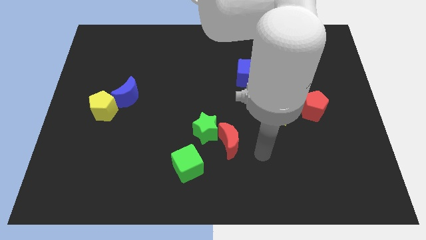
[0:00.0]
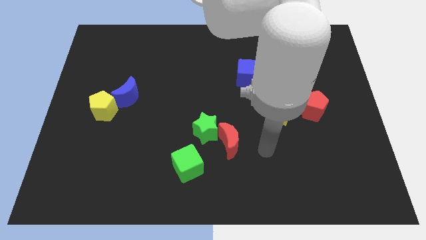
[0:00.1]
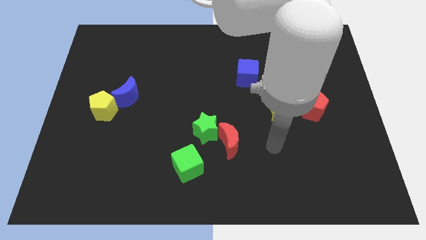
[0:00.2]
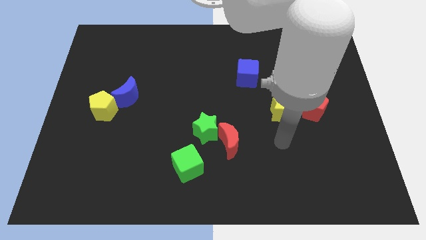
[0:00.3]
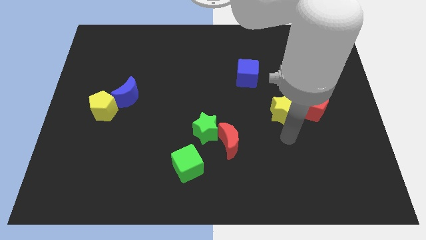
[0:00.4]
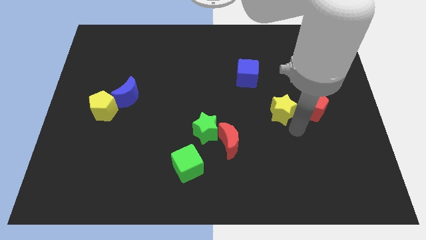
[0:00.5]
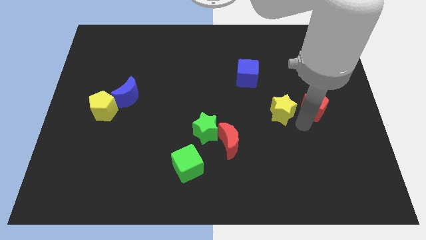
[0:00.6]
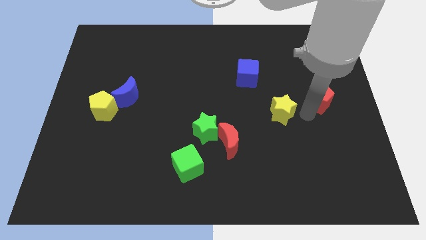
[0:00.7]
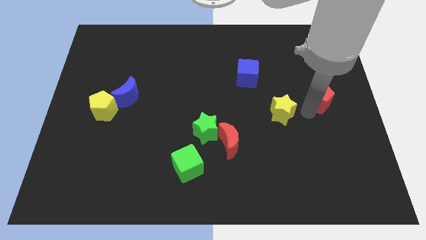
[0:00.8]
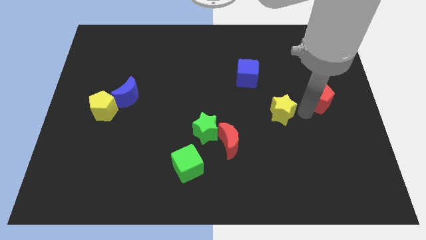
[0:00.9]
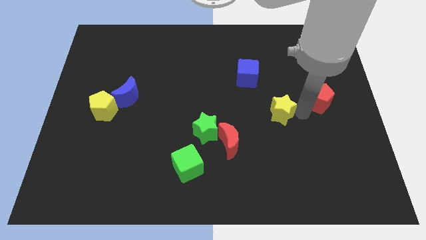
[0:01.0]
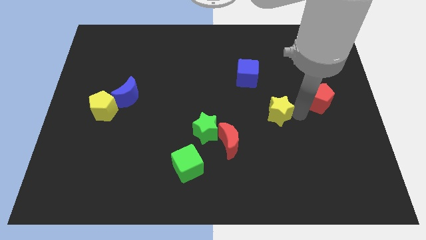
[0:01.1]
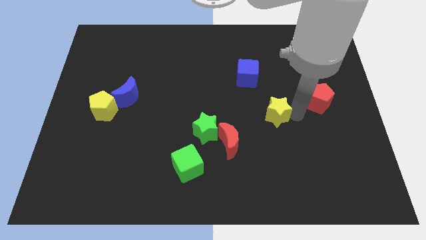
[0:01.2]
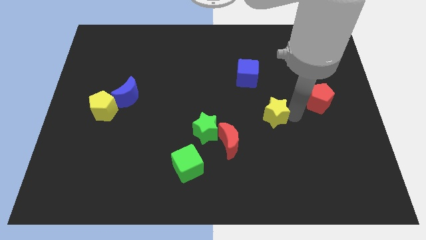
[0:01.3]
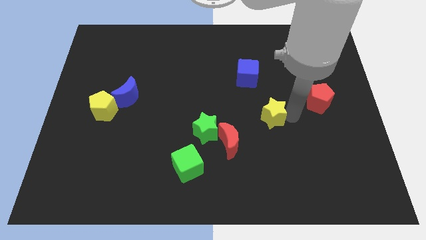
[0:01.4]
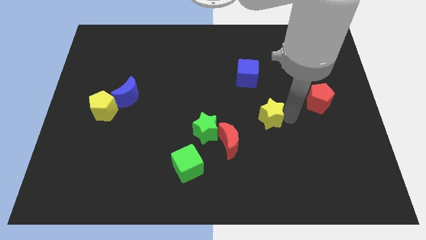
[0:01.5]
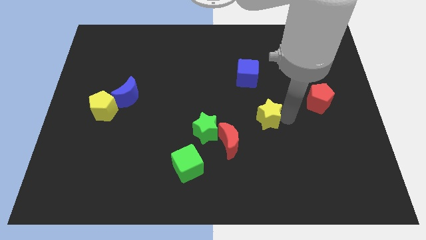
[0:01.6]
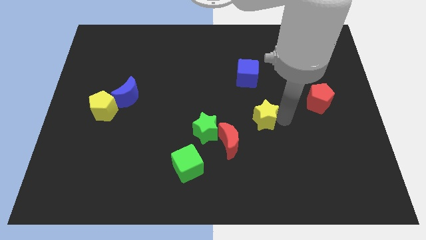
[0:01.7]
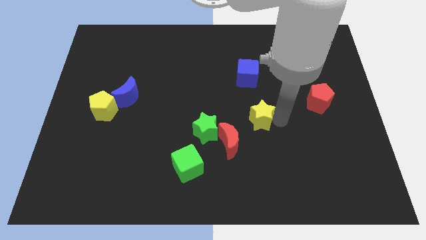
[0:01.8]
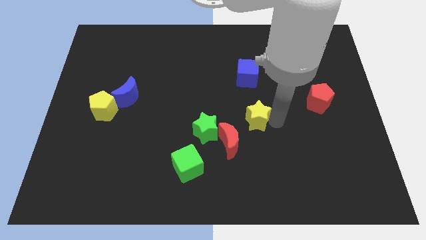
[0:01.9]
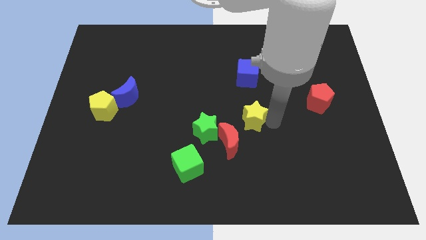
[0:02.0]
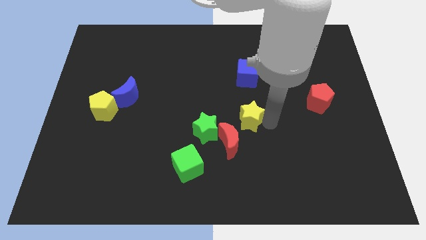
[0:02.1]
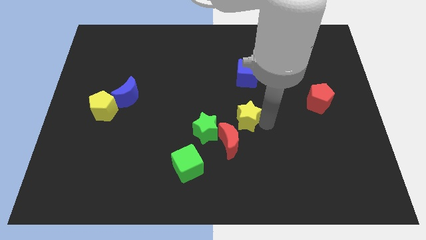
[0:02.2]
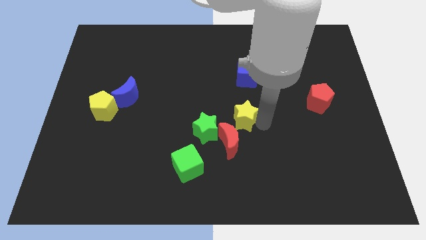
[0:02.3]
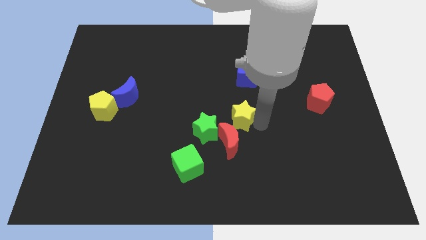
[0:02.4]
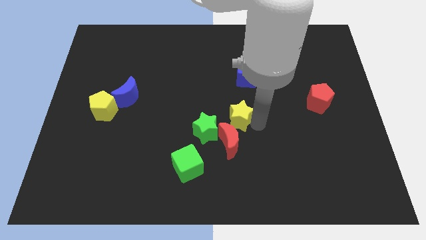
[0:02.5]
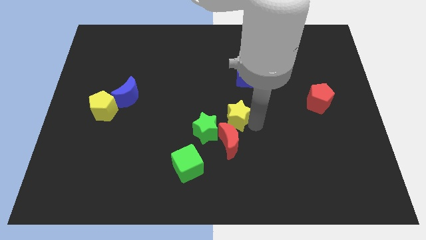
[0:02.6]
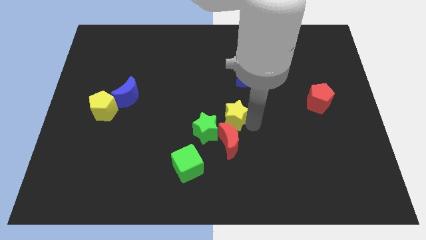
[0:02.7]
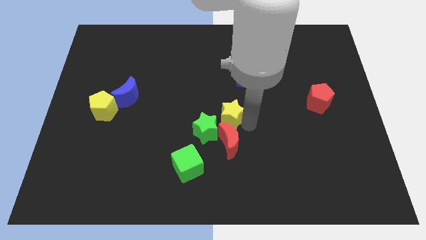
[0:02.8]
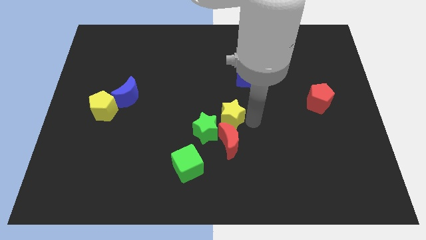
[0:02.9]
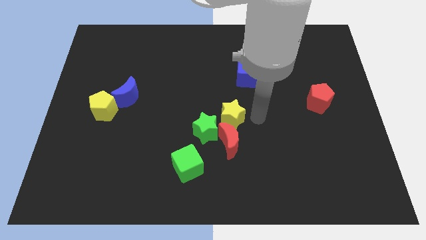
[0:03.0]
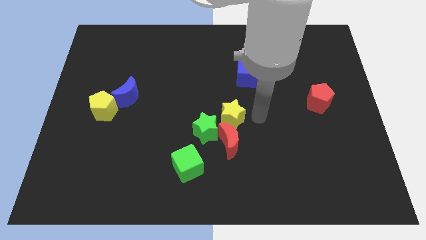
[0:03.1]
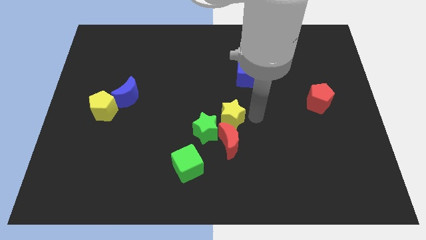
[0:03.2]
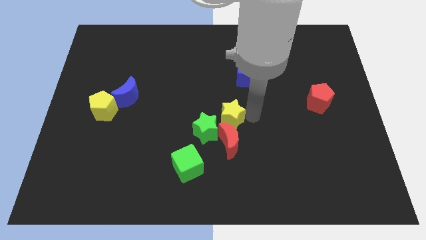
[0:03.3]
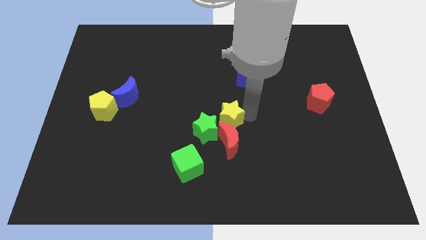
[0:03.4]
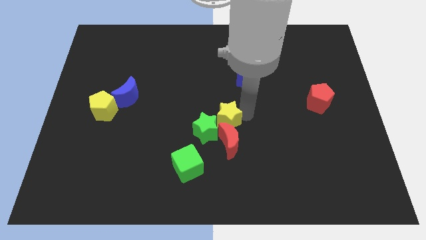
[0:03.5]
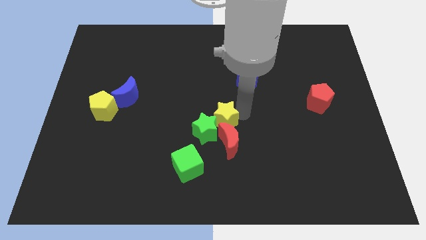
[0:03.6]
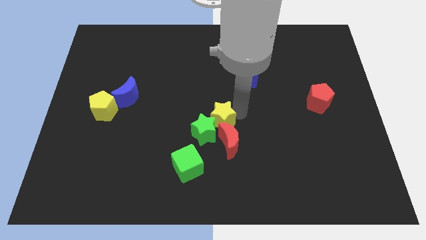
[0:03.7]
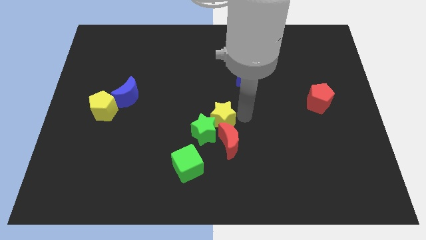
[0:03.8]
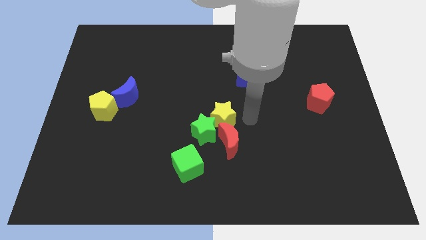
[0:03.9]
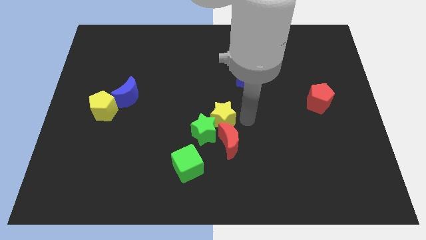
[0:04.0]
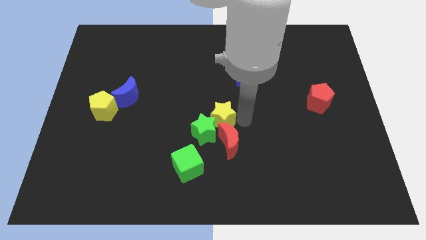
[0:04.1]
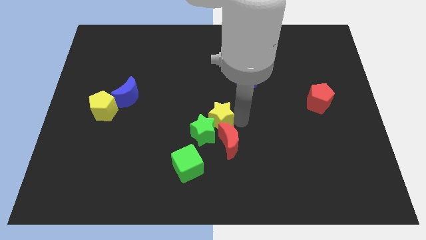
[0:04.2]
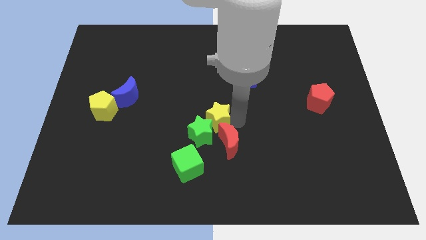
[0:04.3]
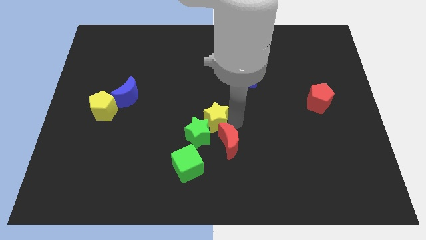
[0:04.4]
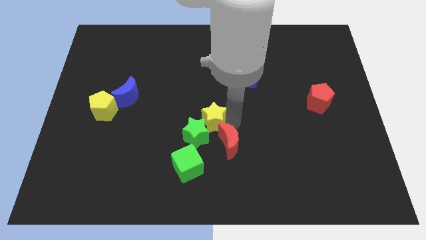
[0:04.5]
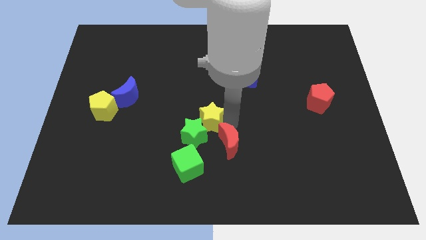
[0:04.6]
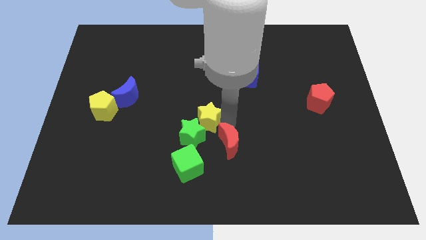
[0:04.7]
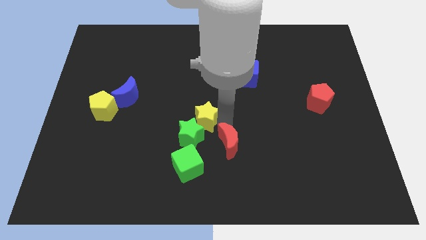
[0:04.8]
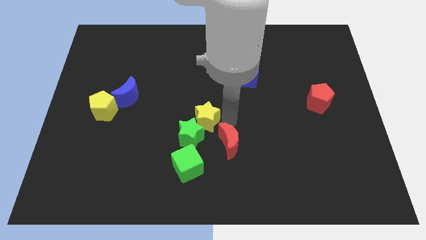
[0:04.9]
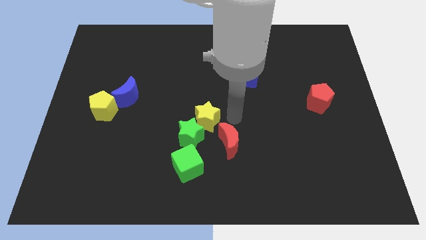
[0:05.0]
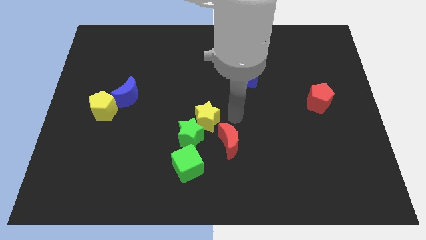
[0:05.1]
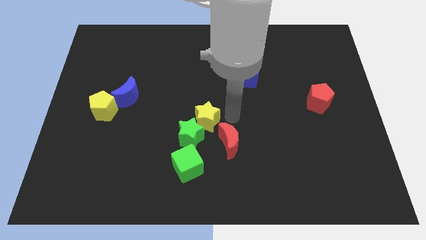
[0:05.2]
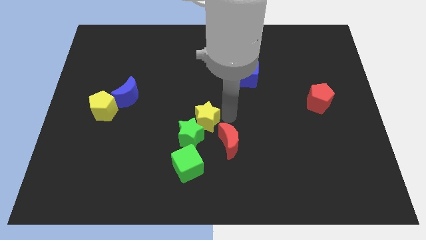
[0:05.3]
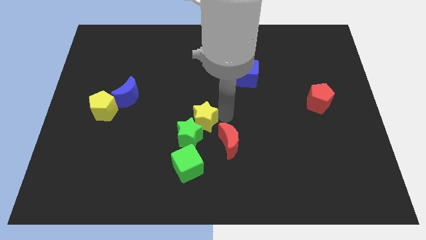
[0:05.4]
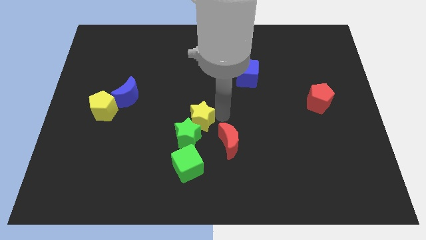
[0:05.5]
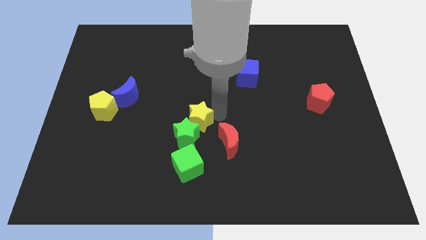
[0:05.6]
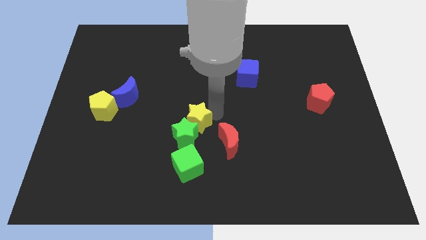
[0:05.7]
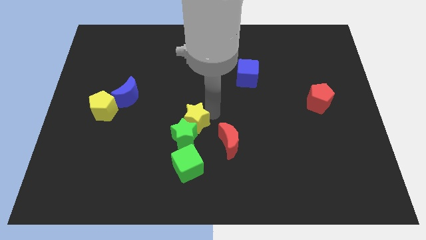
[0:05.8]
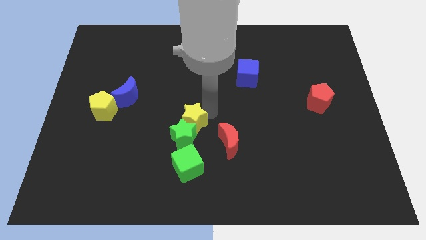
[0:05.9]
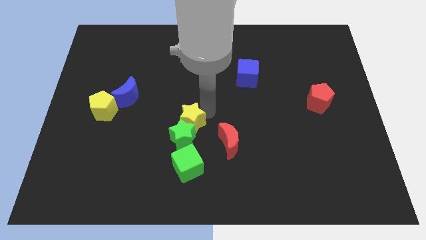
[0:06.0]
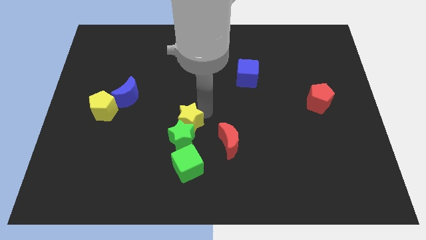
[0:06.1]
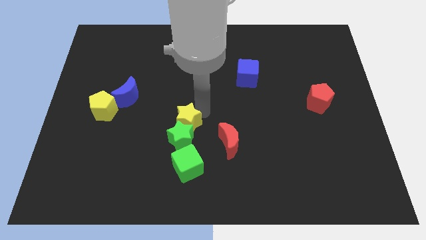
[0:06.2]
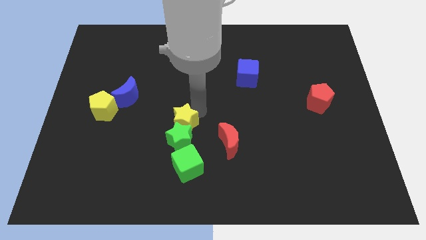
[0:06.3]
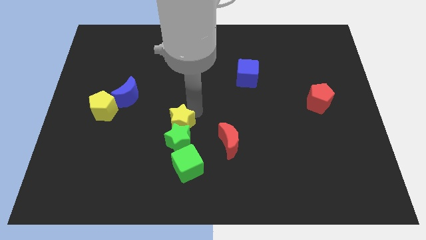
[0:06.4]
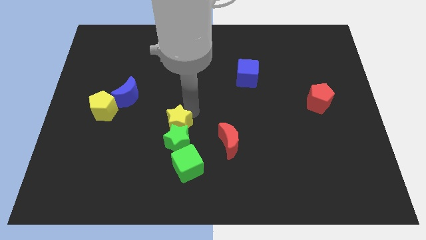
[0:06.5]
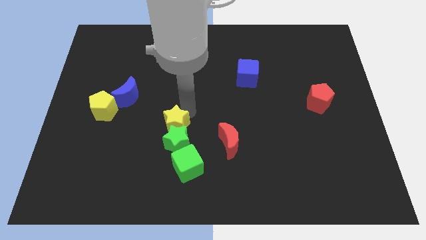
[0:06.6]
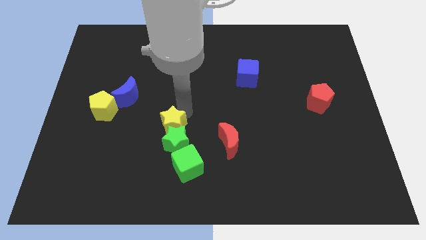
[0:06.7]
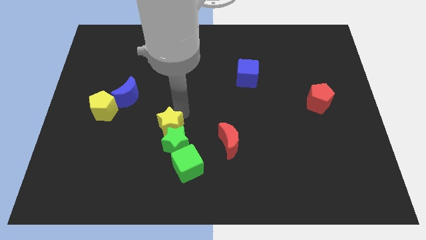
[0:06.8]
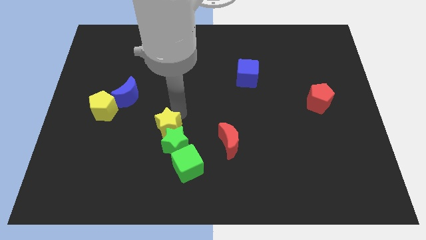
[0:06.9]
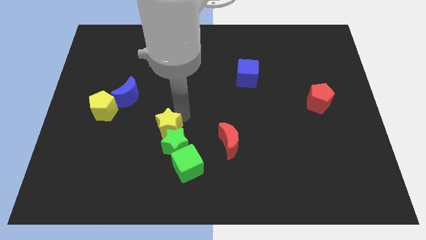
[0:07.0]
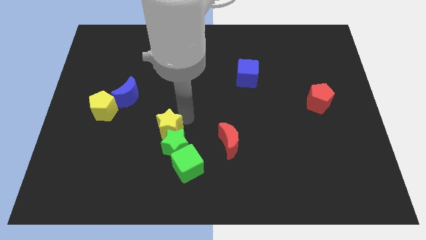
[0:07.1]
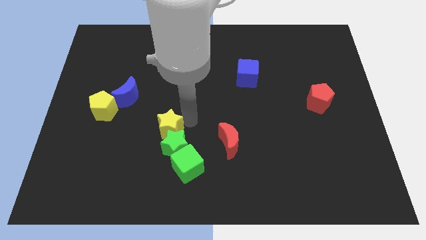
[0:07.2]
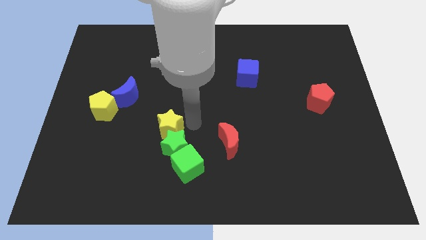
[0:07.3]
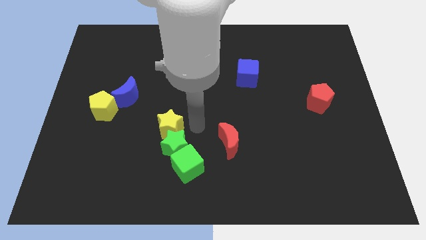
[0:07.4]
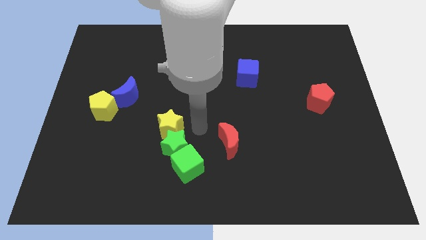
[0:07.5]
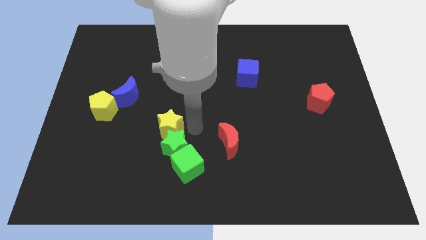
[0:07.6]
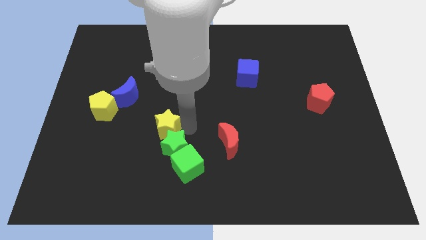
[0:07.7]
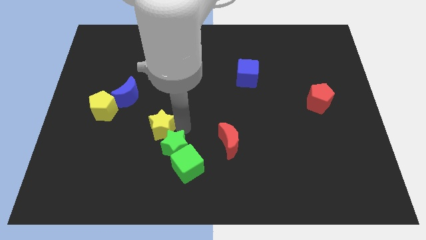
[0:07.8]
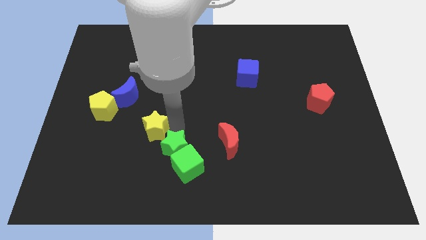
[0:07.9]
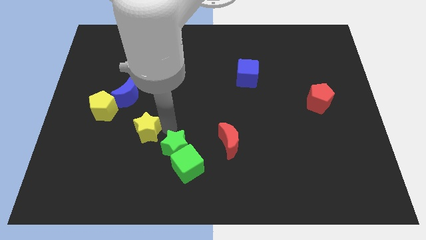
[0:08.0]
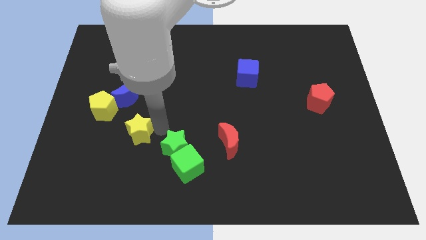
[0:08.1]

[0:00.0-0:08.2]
push the yellow star diagonally down and to the right of the yellow pentagon
